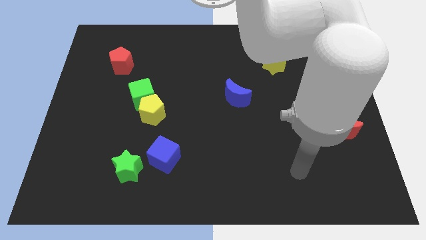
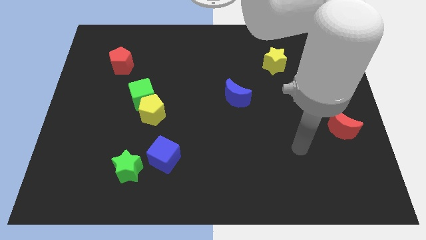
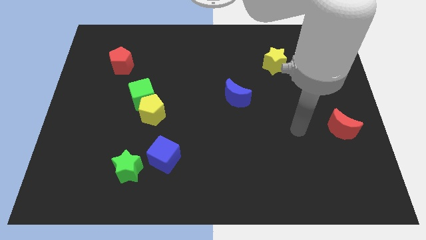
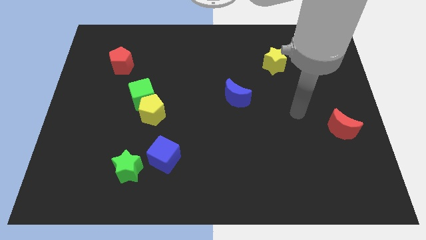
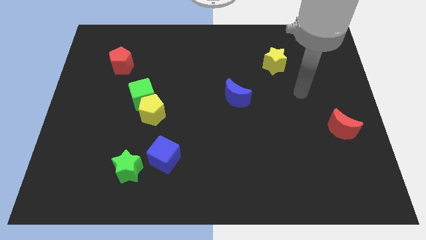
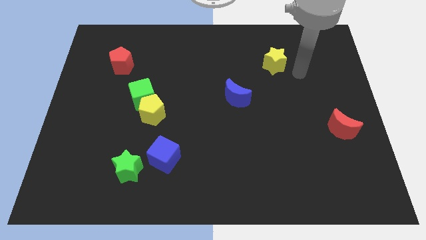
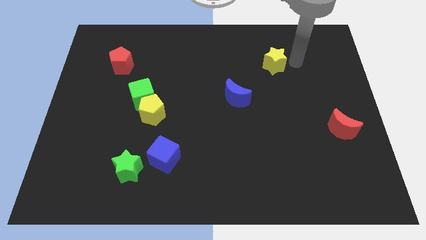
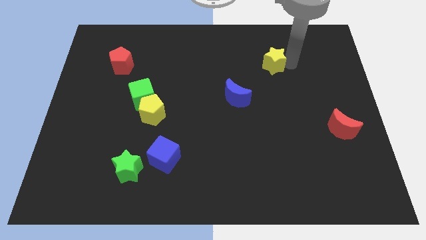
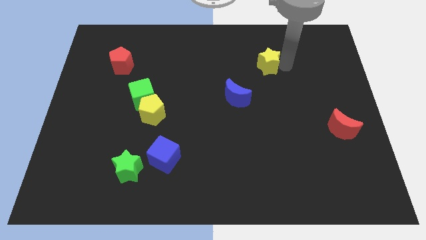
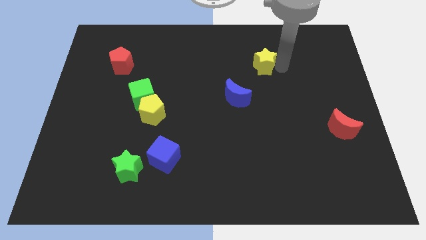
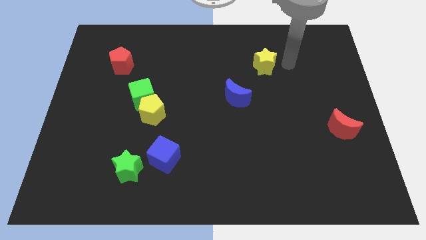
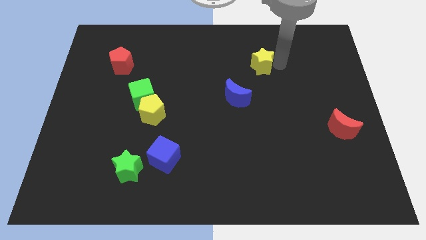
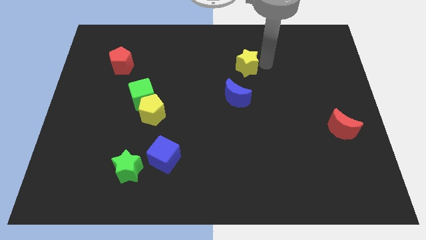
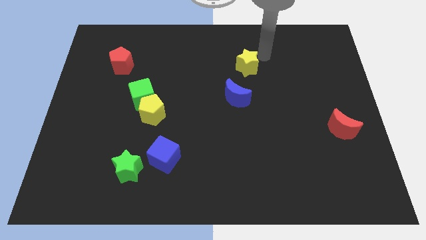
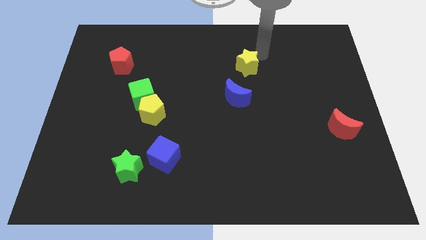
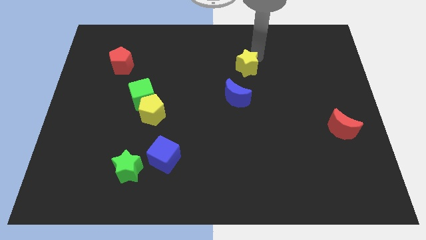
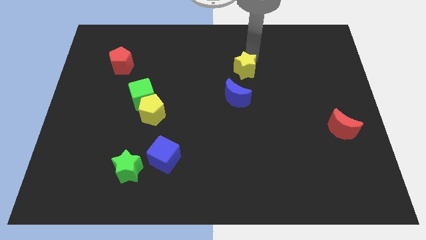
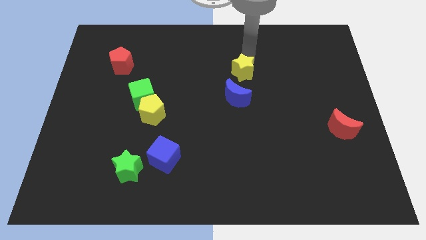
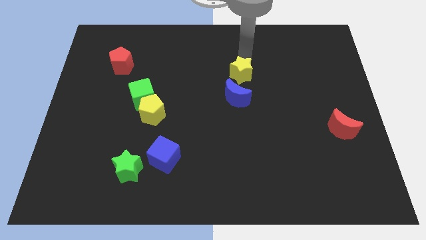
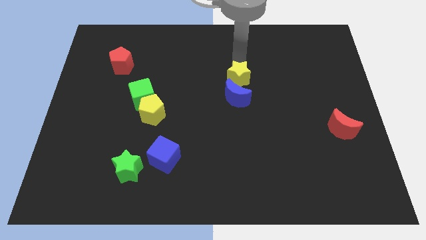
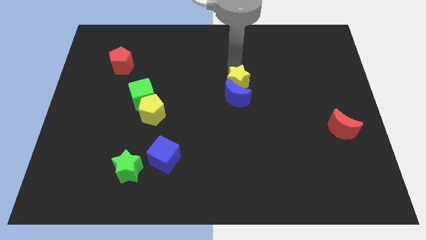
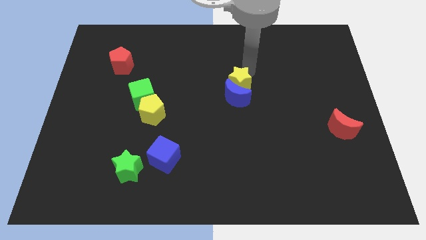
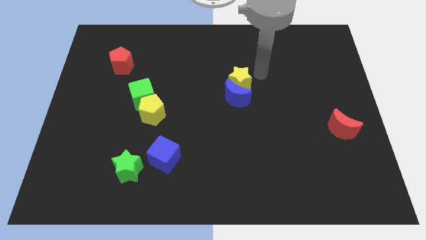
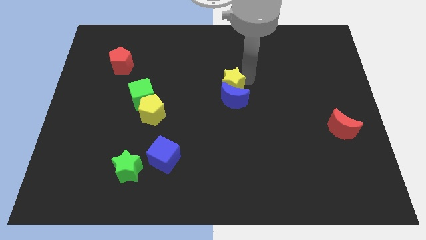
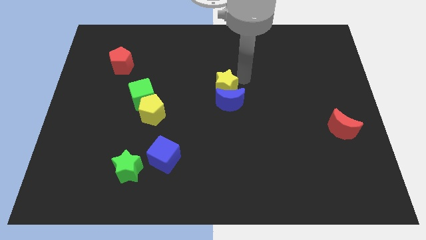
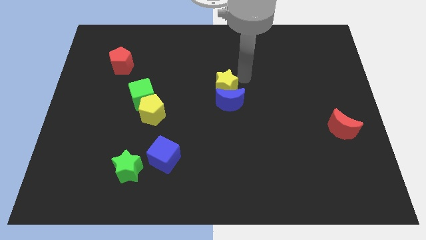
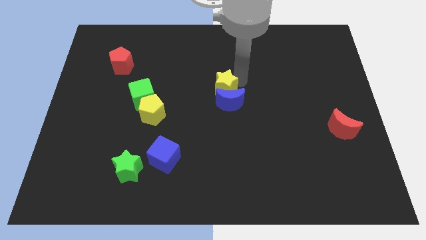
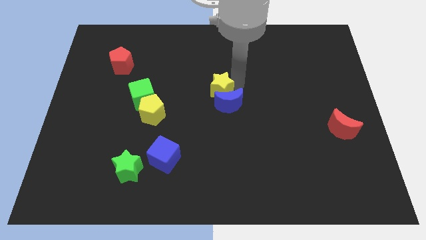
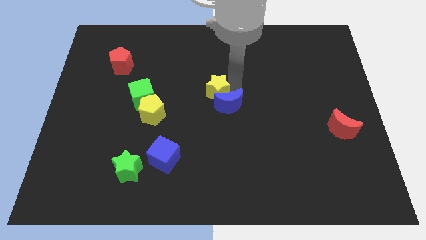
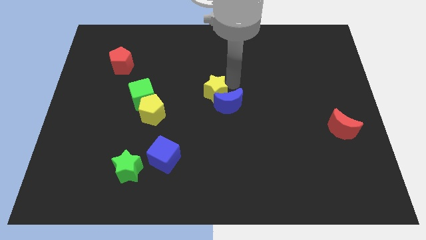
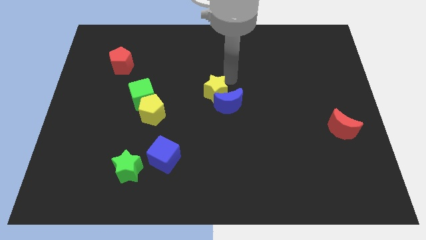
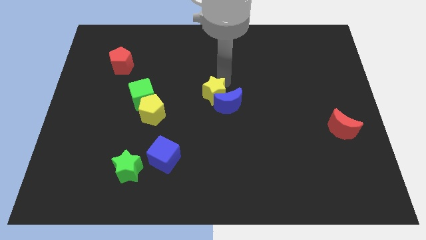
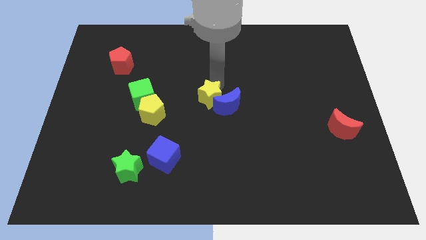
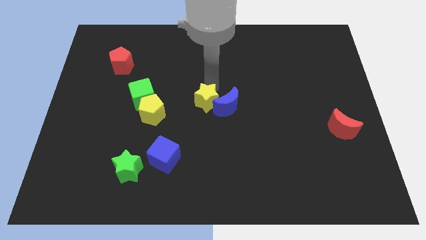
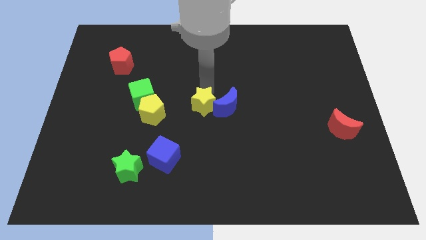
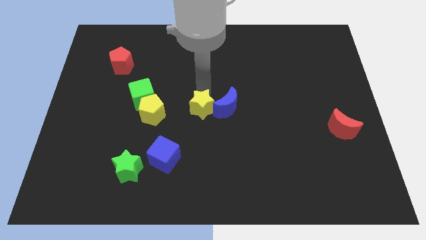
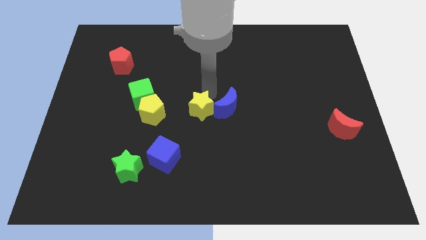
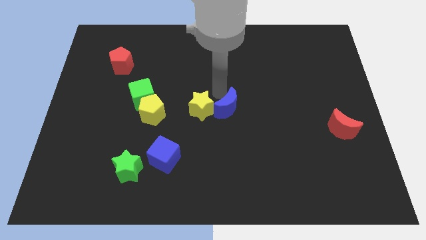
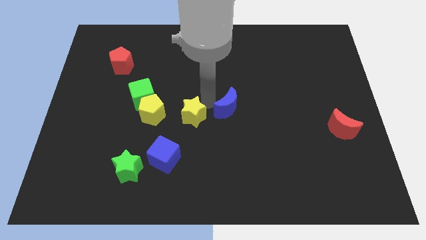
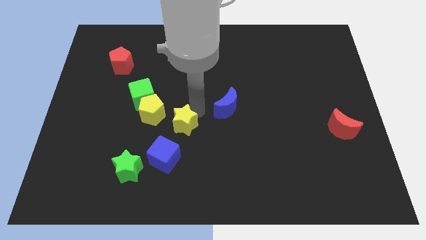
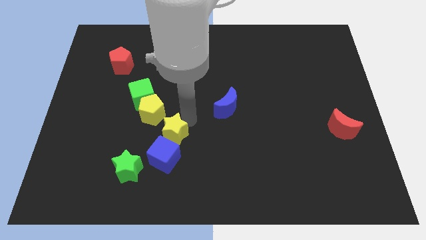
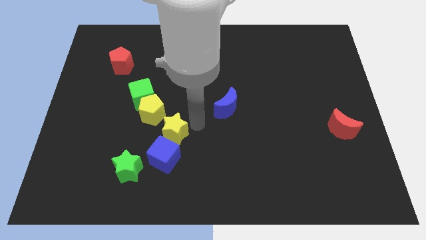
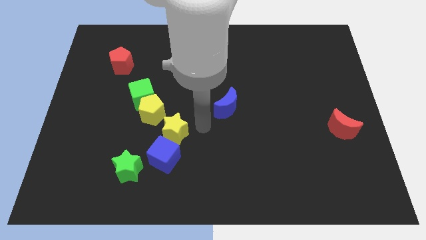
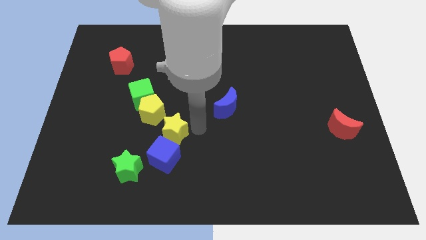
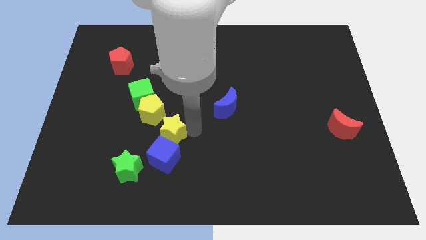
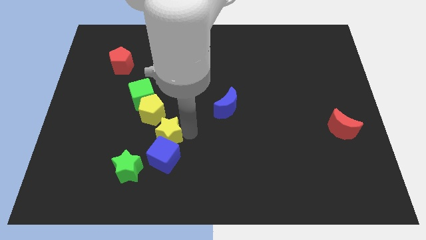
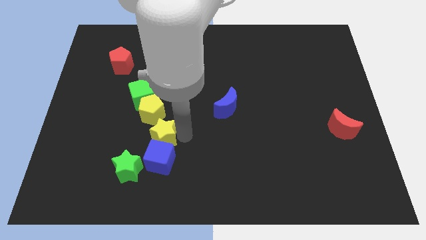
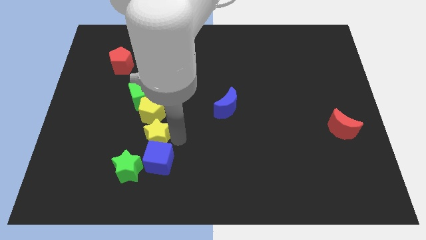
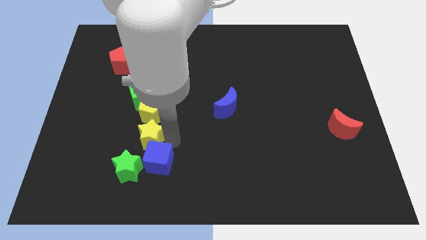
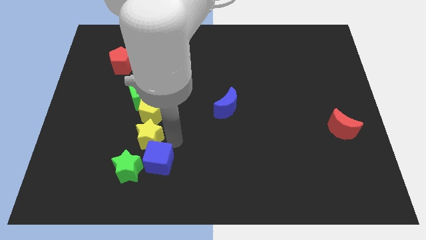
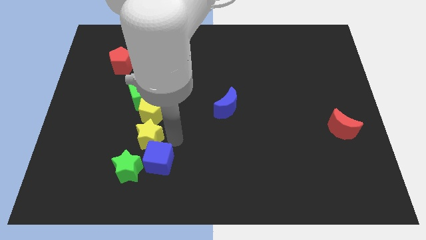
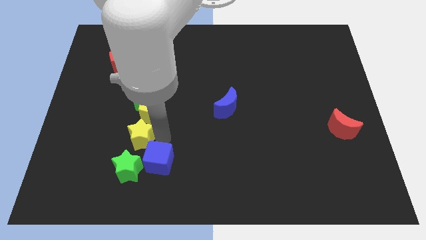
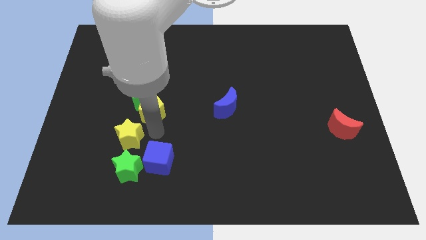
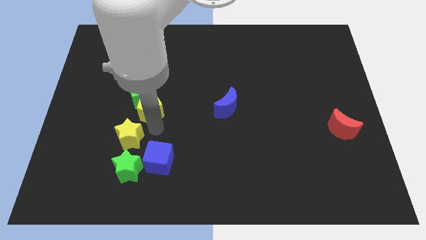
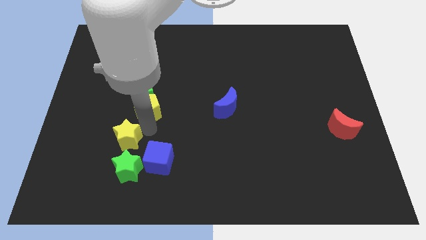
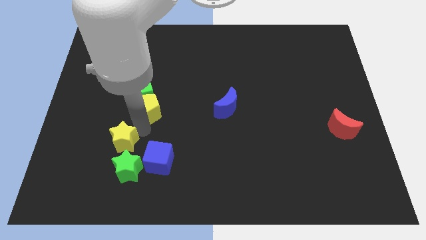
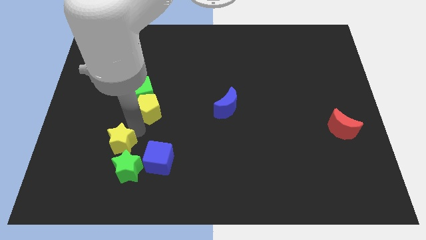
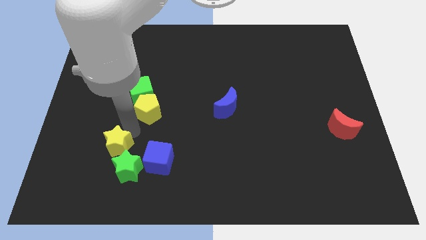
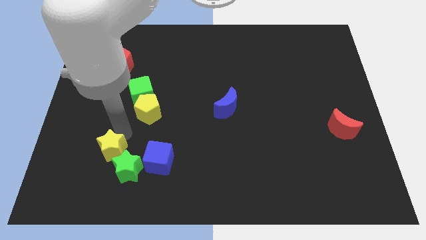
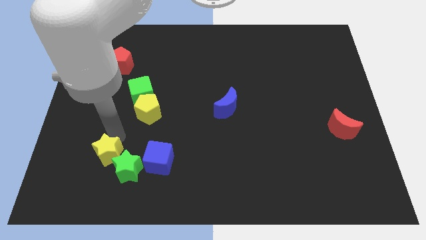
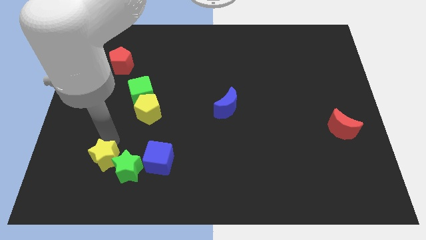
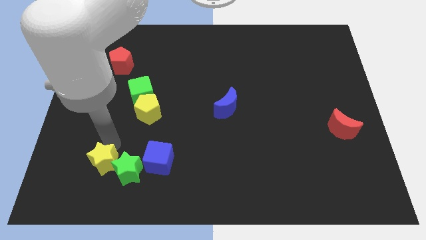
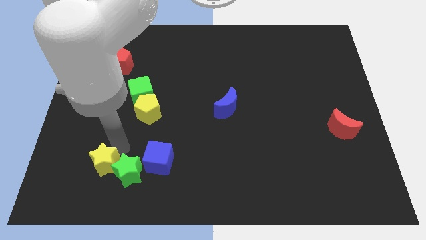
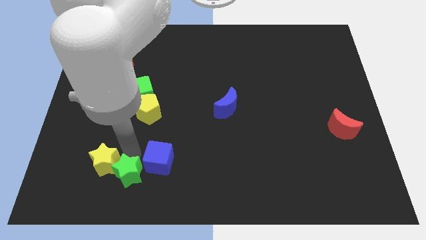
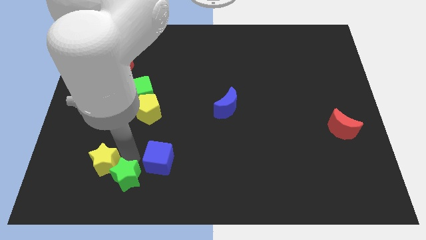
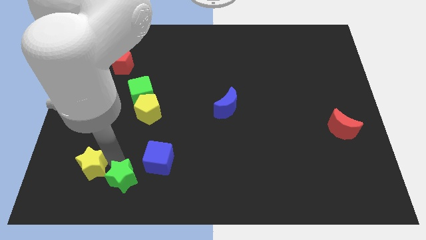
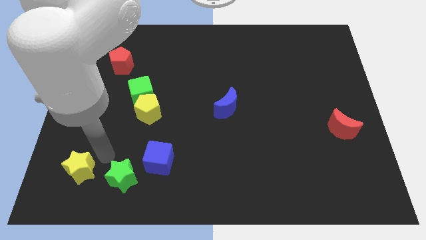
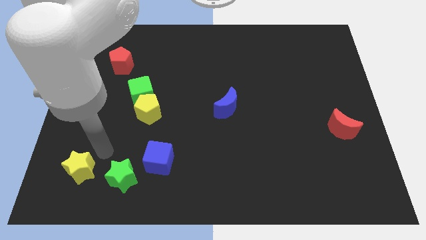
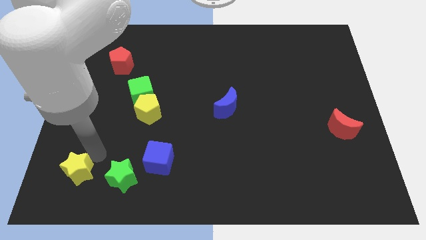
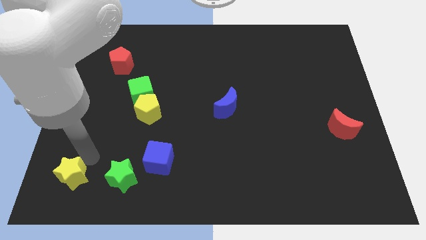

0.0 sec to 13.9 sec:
slide the yellow star to the lower left corner
